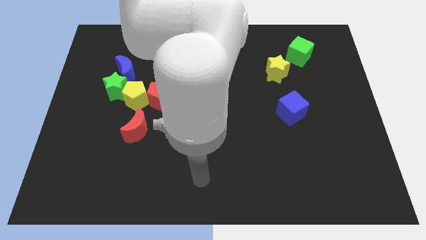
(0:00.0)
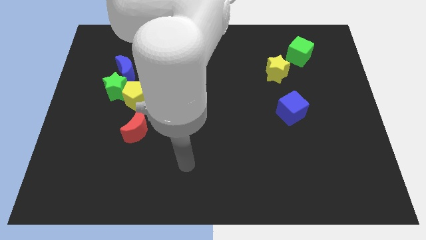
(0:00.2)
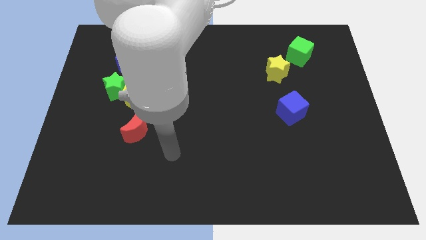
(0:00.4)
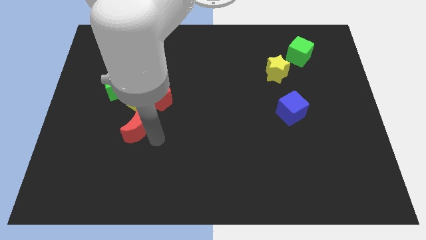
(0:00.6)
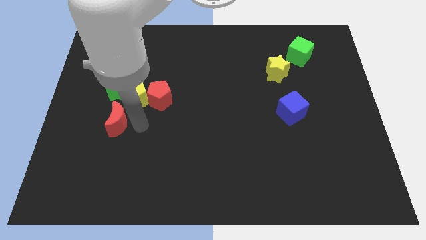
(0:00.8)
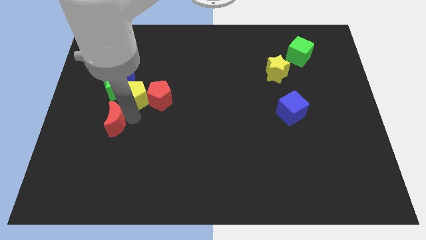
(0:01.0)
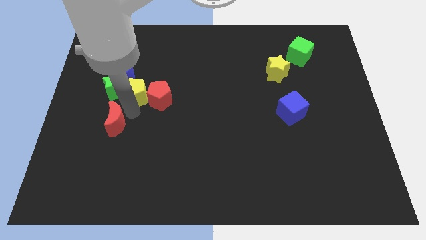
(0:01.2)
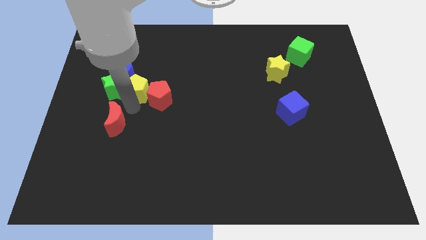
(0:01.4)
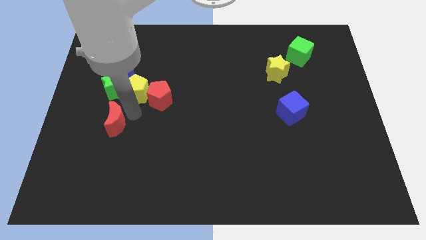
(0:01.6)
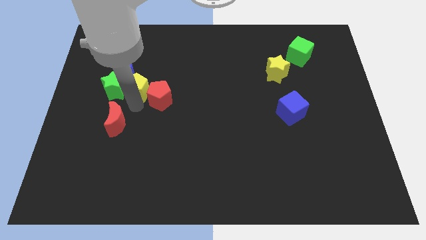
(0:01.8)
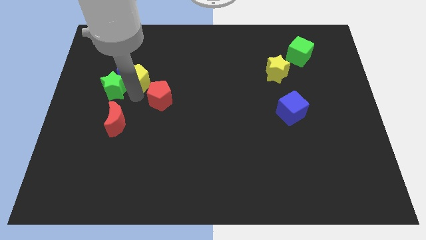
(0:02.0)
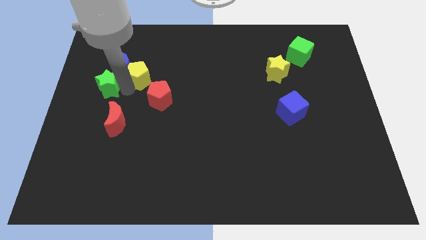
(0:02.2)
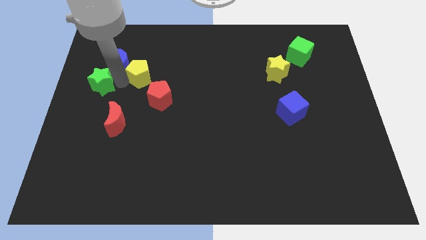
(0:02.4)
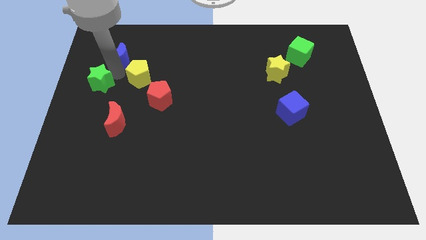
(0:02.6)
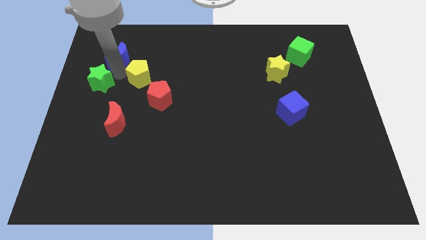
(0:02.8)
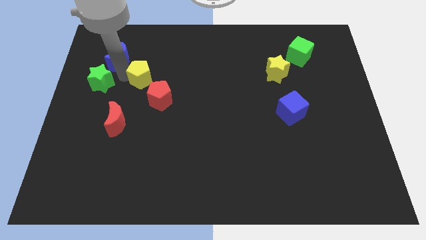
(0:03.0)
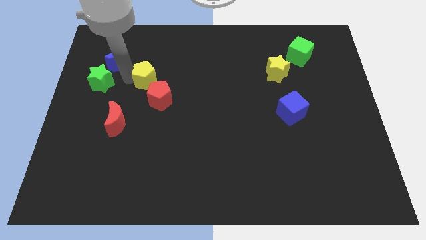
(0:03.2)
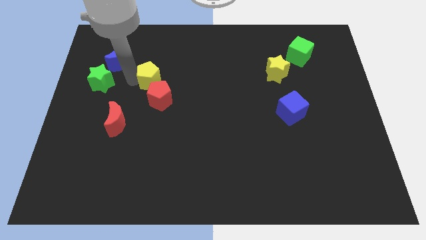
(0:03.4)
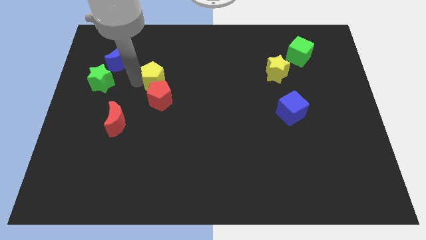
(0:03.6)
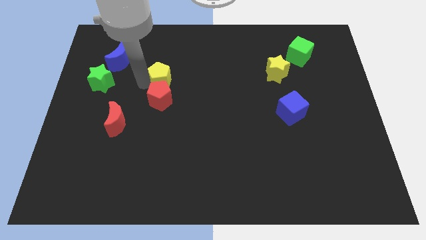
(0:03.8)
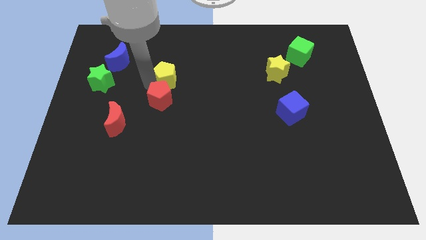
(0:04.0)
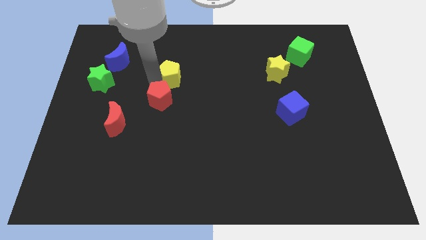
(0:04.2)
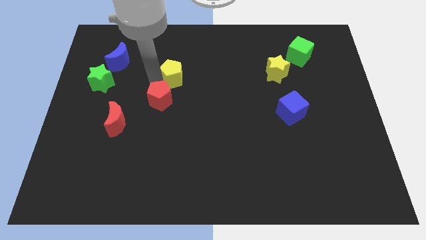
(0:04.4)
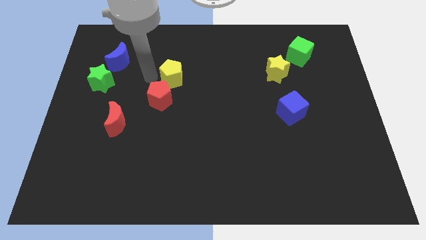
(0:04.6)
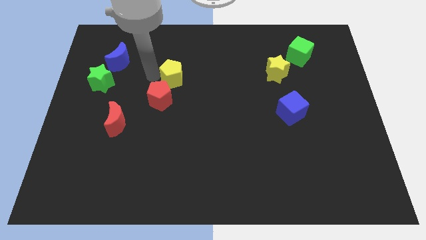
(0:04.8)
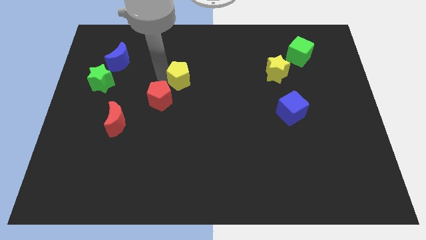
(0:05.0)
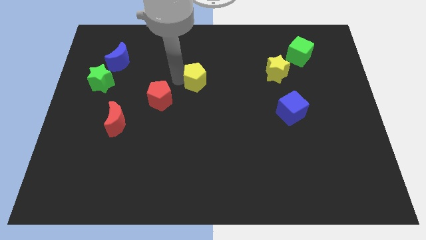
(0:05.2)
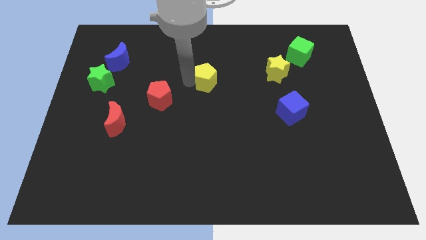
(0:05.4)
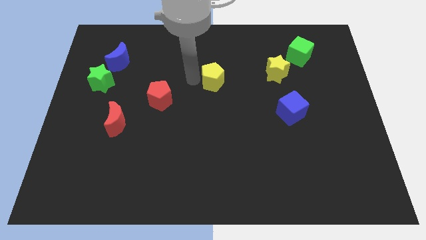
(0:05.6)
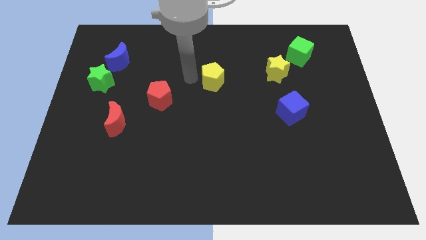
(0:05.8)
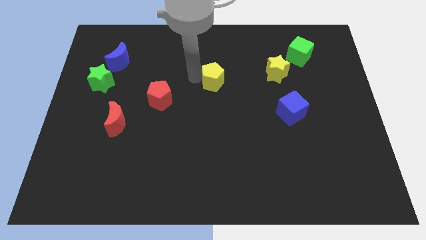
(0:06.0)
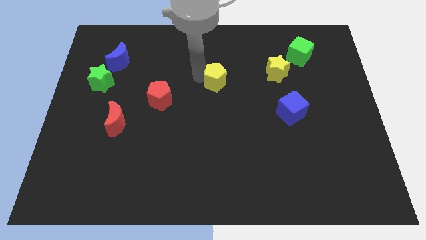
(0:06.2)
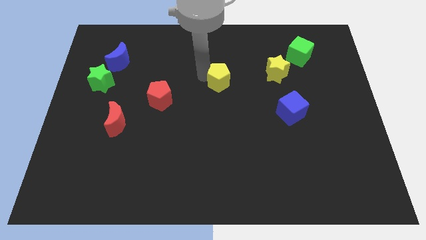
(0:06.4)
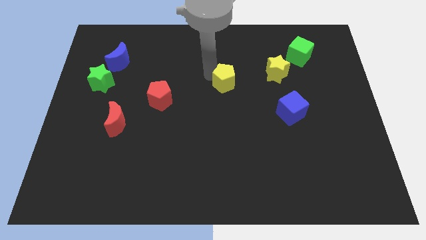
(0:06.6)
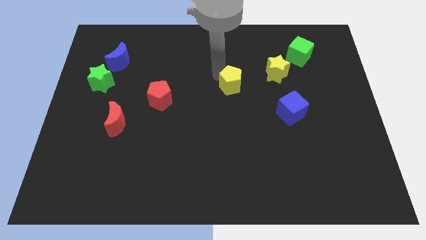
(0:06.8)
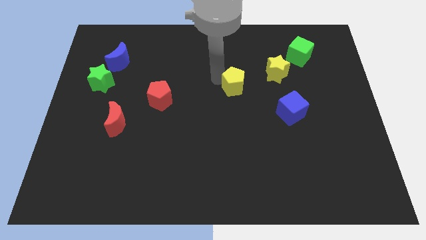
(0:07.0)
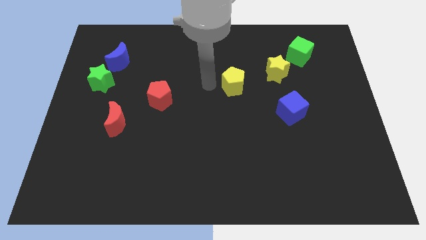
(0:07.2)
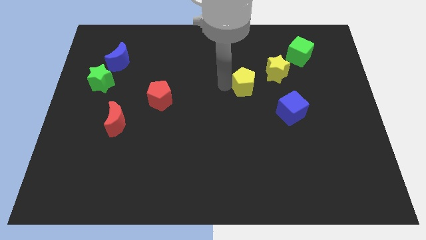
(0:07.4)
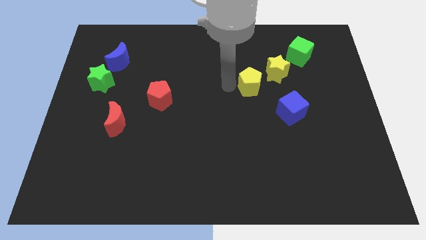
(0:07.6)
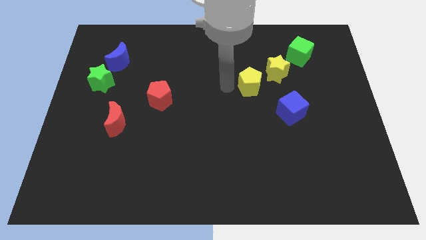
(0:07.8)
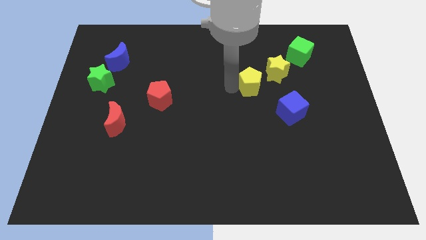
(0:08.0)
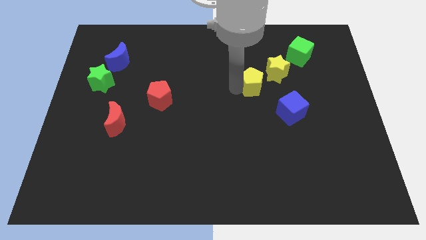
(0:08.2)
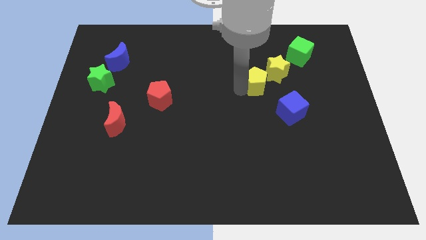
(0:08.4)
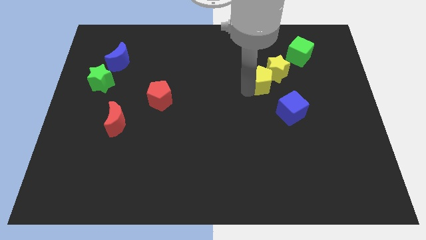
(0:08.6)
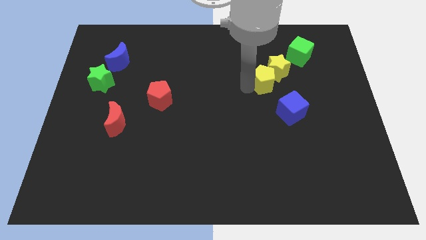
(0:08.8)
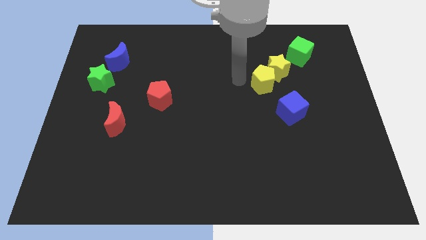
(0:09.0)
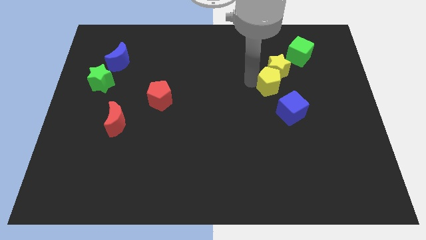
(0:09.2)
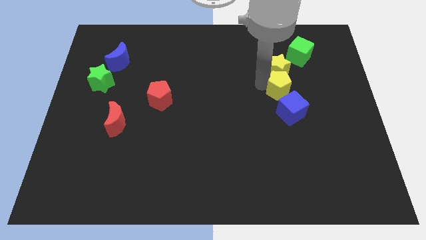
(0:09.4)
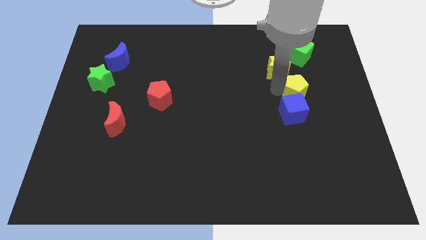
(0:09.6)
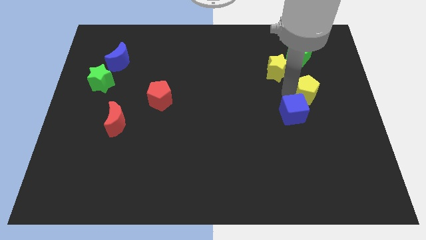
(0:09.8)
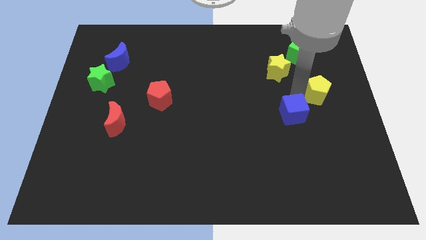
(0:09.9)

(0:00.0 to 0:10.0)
put the yellow pentagon to the center right

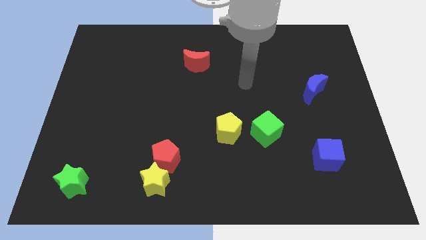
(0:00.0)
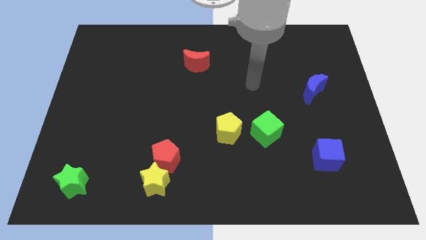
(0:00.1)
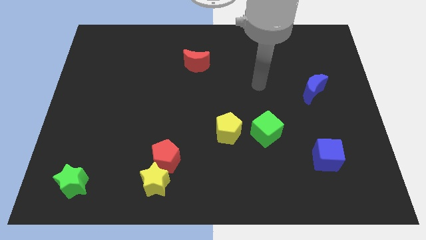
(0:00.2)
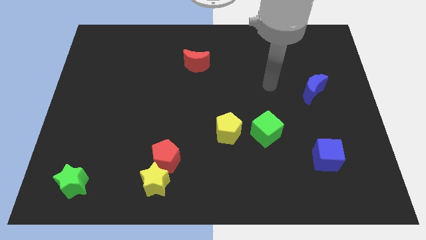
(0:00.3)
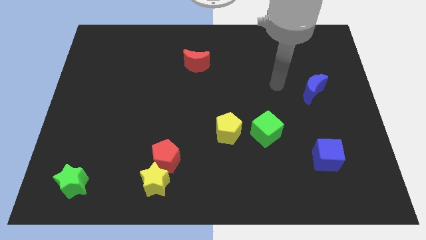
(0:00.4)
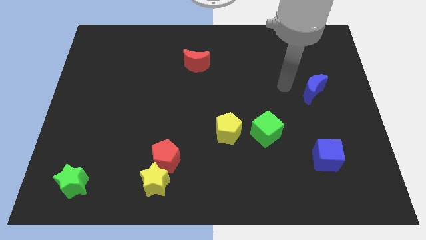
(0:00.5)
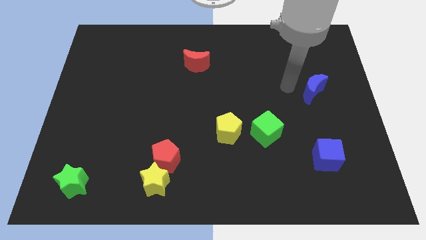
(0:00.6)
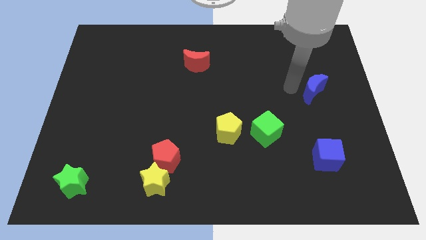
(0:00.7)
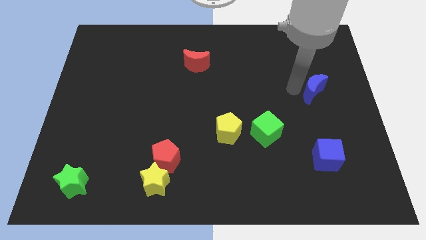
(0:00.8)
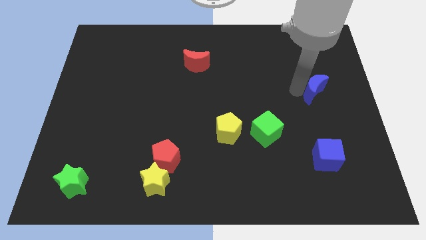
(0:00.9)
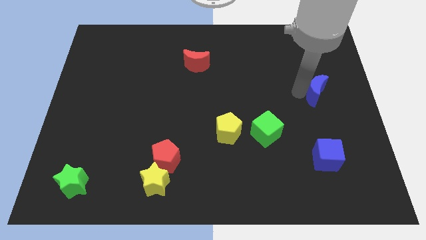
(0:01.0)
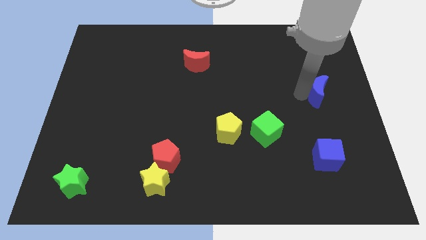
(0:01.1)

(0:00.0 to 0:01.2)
put the blue moon to the center right
